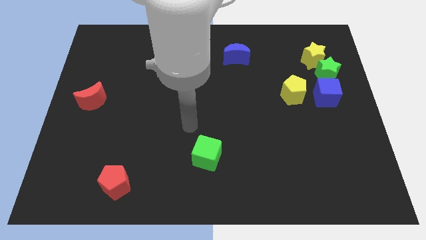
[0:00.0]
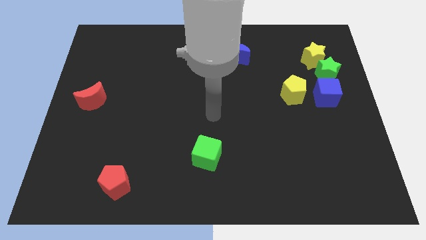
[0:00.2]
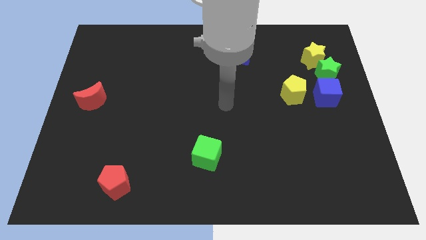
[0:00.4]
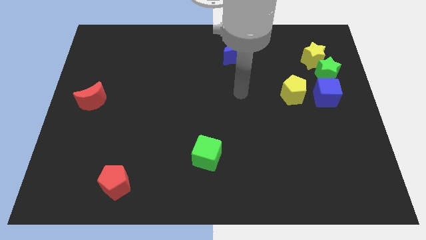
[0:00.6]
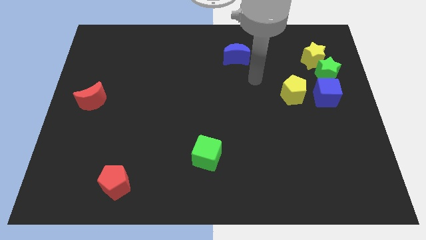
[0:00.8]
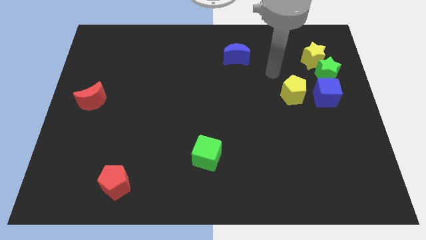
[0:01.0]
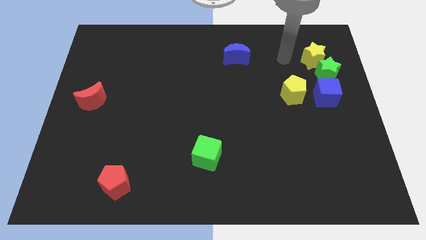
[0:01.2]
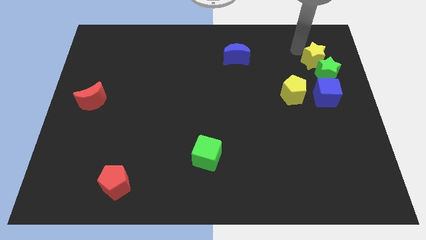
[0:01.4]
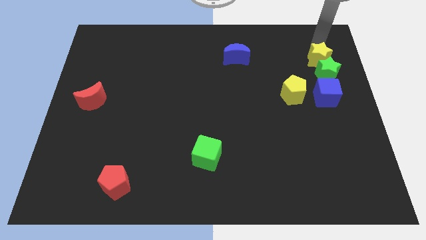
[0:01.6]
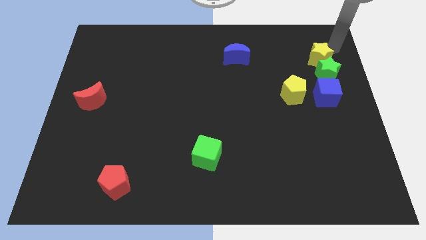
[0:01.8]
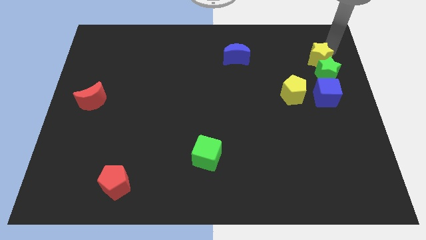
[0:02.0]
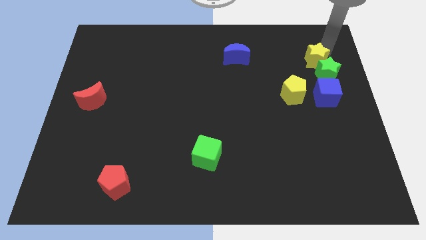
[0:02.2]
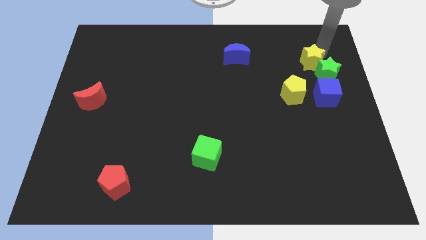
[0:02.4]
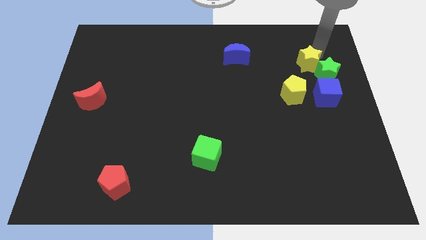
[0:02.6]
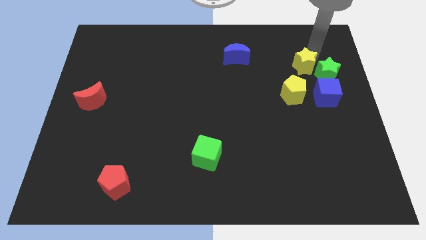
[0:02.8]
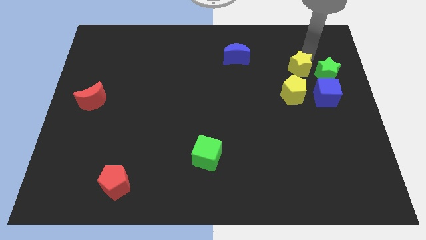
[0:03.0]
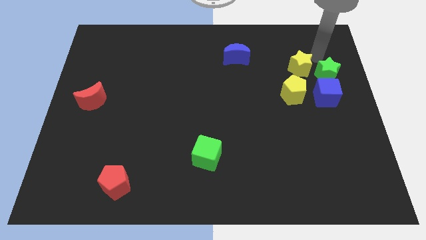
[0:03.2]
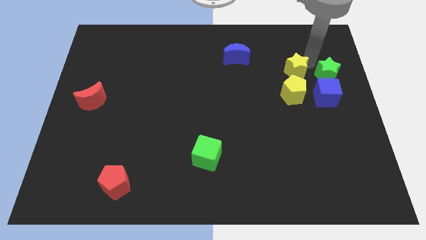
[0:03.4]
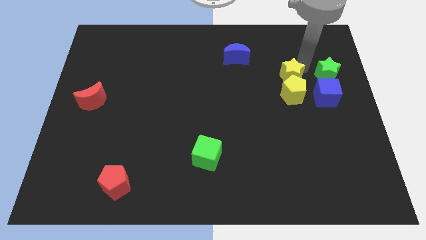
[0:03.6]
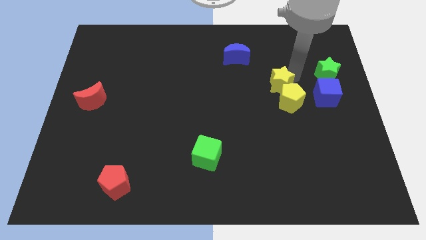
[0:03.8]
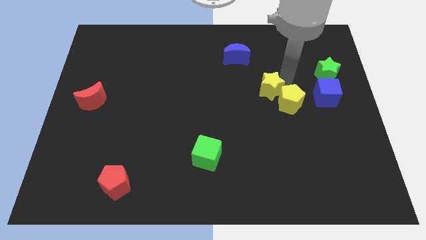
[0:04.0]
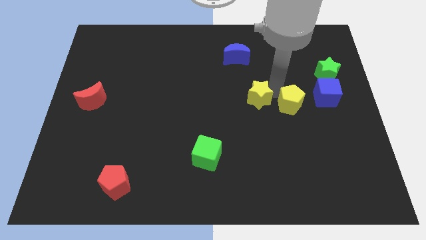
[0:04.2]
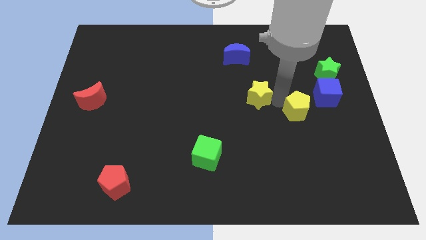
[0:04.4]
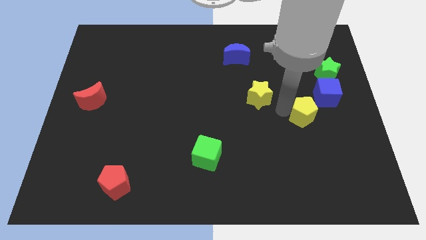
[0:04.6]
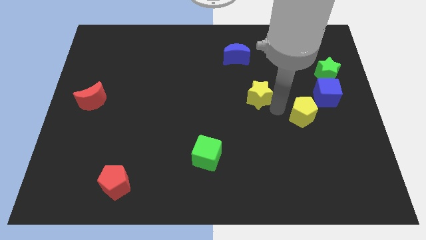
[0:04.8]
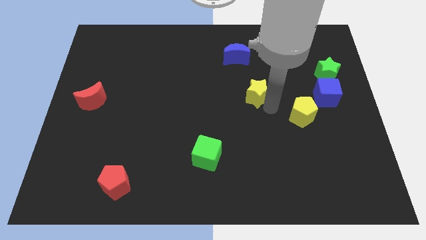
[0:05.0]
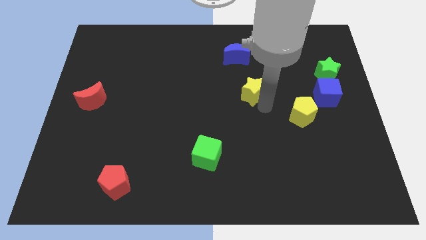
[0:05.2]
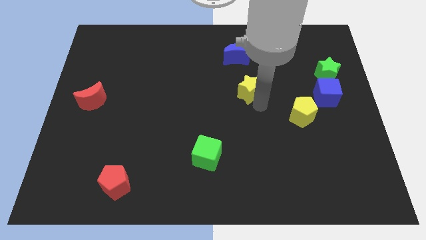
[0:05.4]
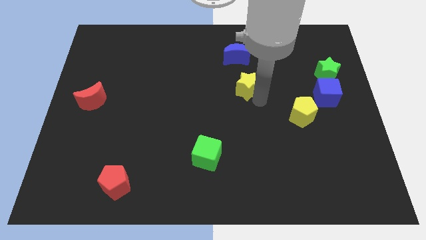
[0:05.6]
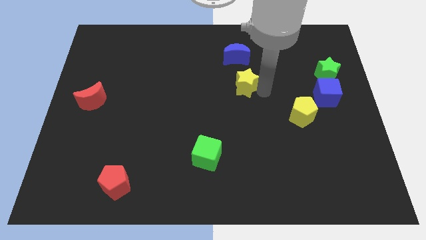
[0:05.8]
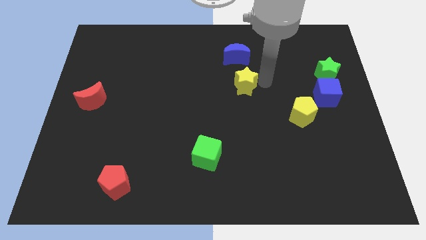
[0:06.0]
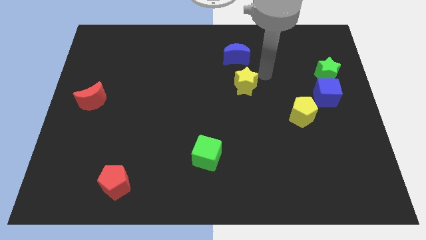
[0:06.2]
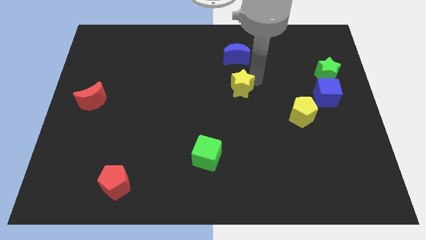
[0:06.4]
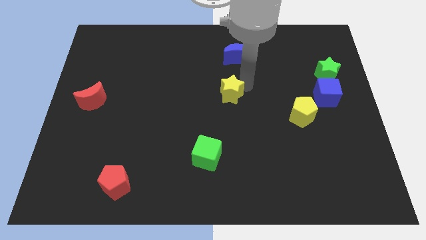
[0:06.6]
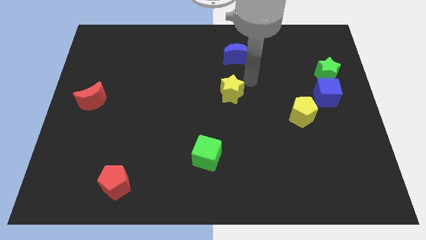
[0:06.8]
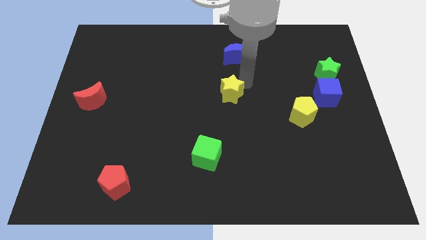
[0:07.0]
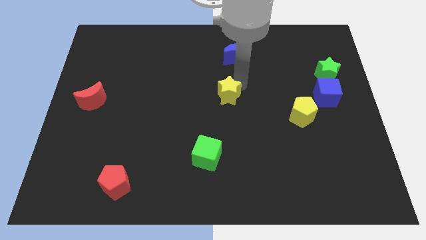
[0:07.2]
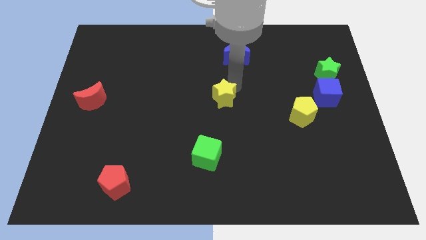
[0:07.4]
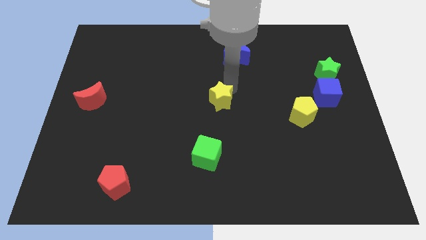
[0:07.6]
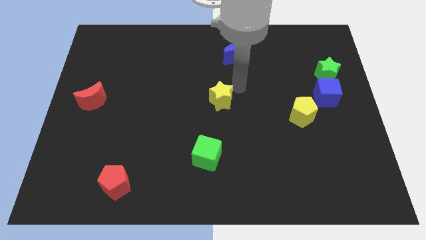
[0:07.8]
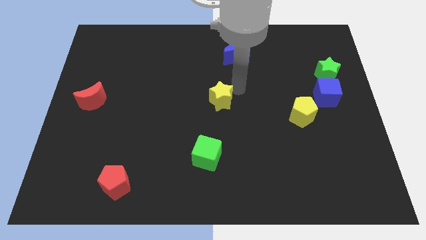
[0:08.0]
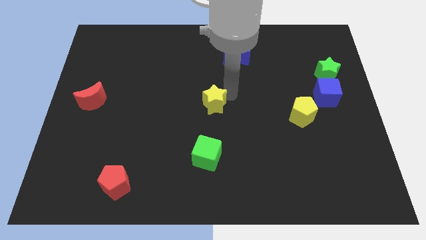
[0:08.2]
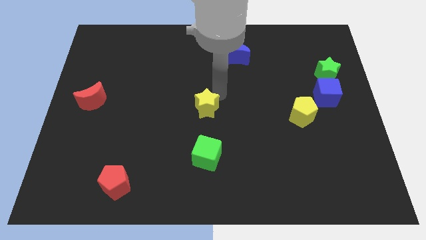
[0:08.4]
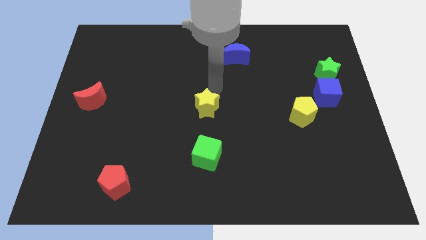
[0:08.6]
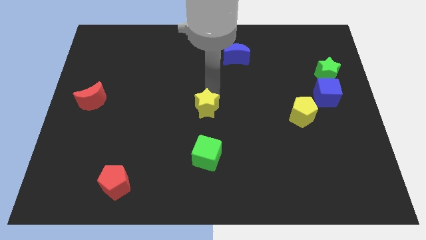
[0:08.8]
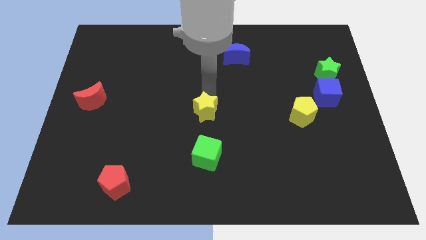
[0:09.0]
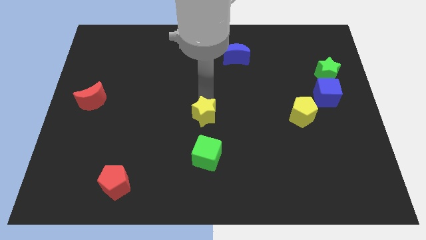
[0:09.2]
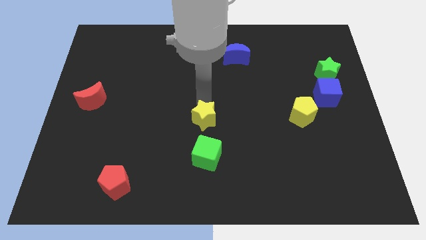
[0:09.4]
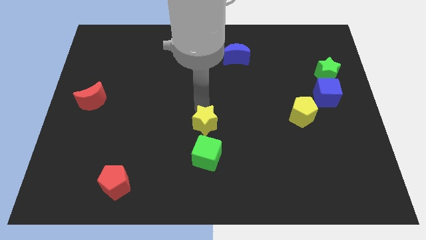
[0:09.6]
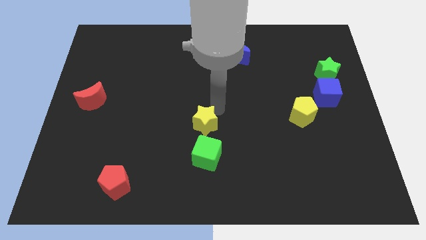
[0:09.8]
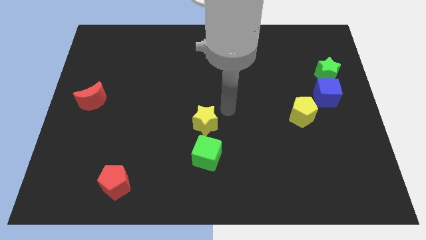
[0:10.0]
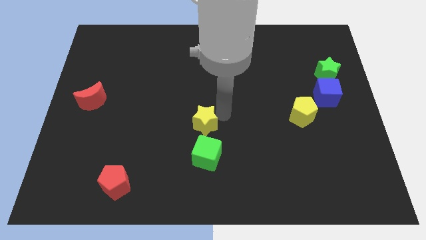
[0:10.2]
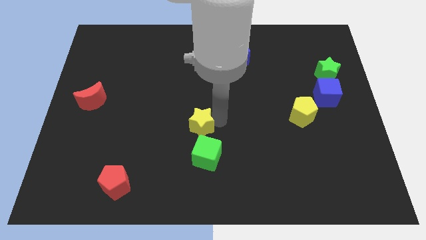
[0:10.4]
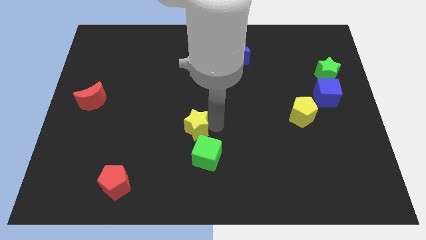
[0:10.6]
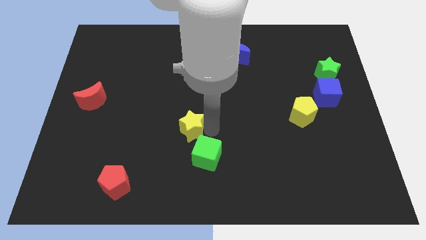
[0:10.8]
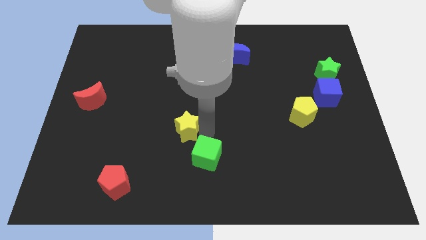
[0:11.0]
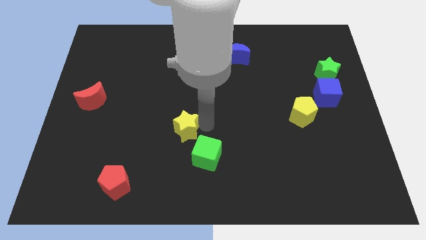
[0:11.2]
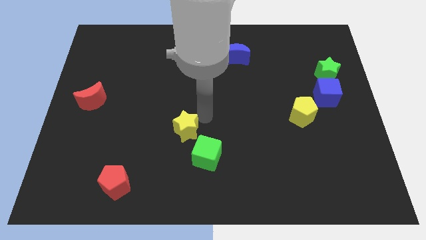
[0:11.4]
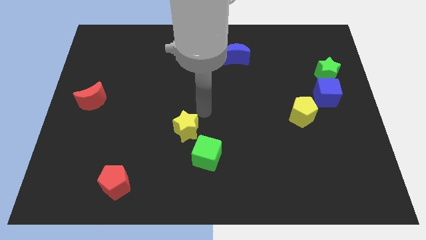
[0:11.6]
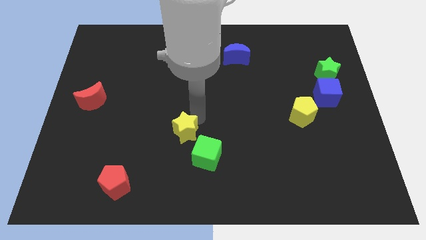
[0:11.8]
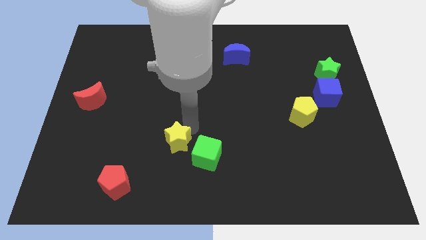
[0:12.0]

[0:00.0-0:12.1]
move the yellow star just left of the green cube

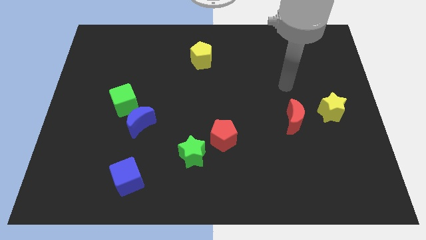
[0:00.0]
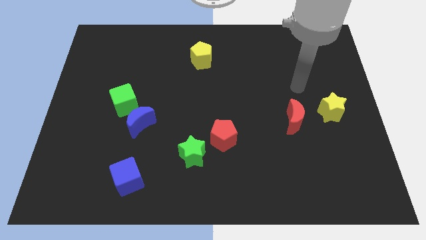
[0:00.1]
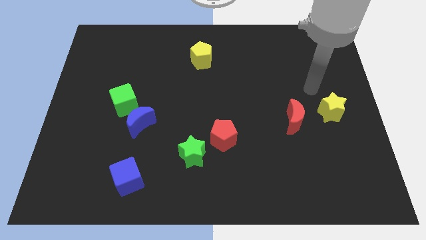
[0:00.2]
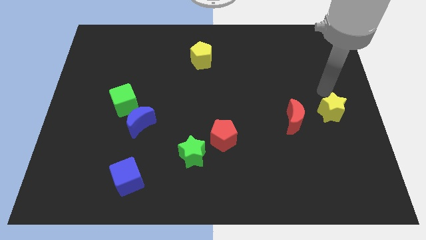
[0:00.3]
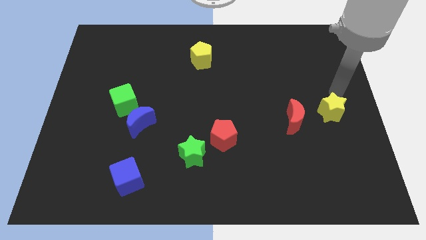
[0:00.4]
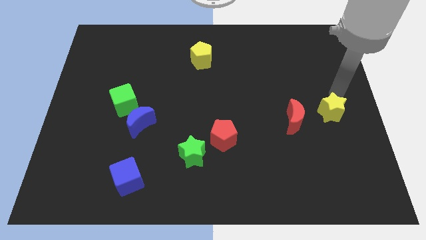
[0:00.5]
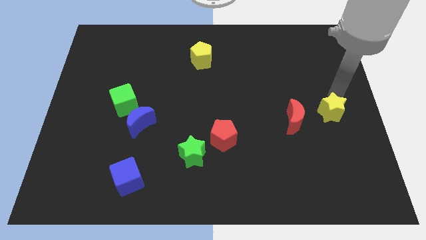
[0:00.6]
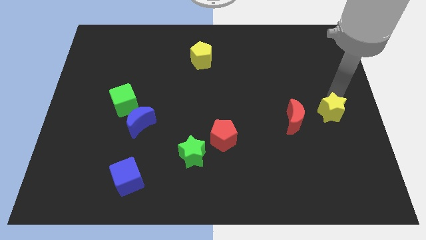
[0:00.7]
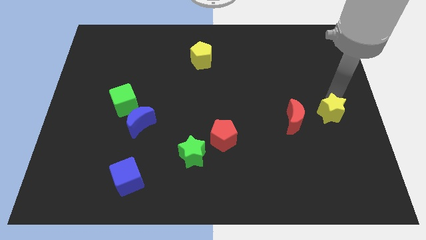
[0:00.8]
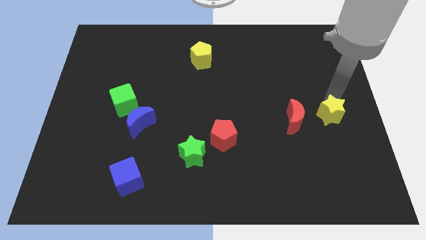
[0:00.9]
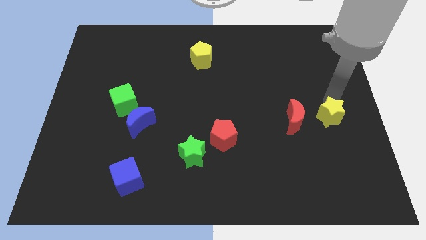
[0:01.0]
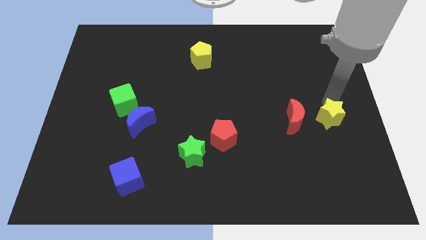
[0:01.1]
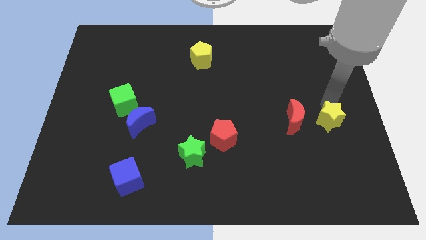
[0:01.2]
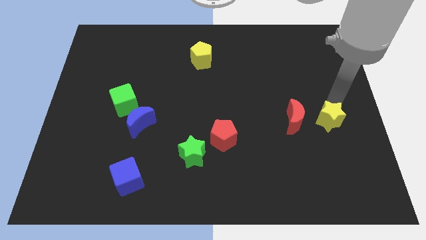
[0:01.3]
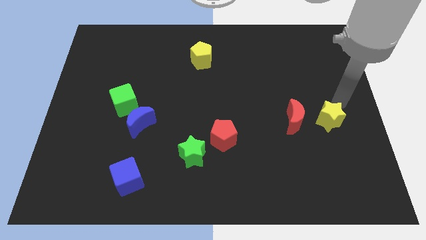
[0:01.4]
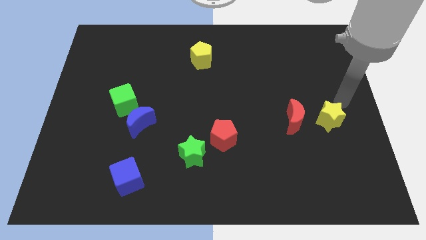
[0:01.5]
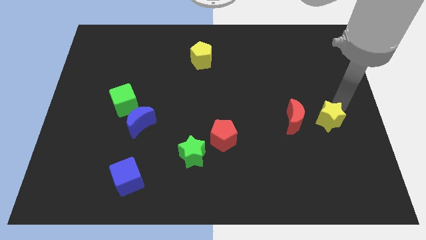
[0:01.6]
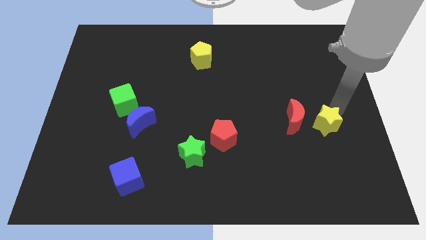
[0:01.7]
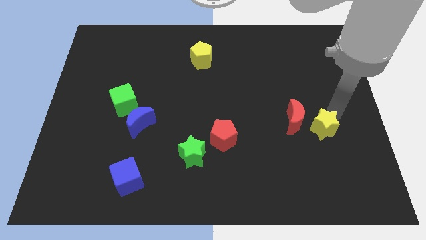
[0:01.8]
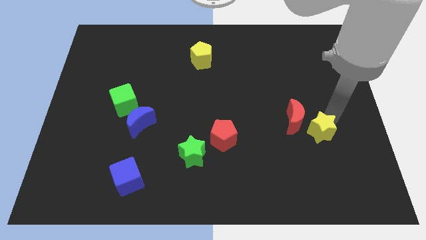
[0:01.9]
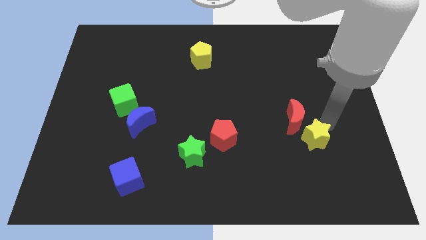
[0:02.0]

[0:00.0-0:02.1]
move the yellow star to the bottom side of the red moon
